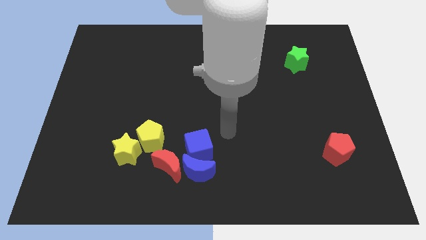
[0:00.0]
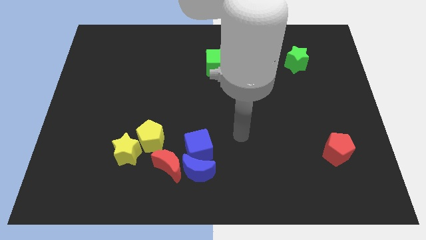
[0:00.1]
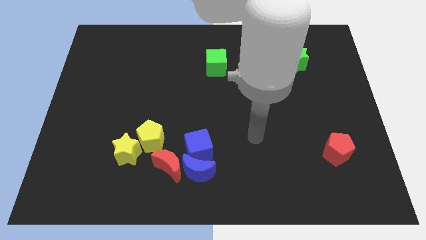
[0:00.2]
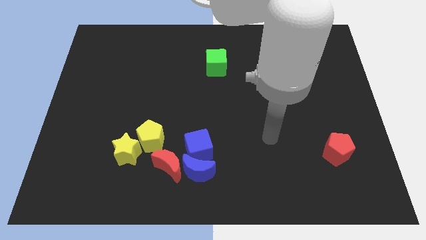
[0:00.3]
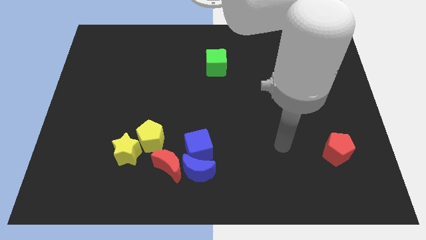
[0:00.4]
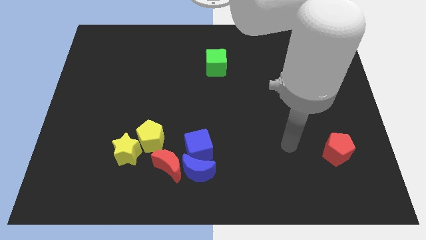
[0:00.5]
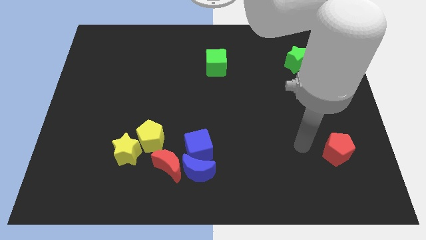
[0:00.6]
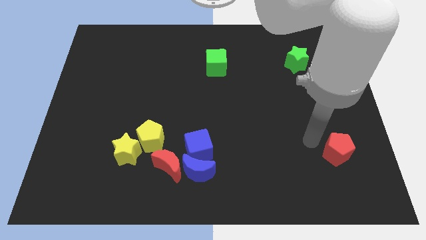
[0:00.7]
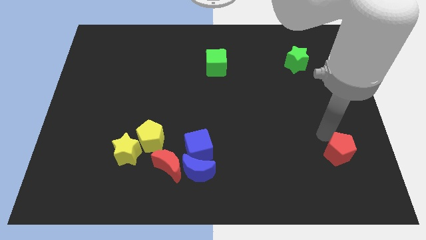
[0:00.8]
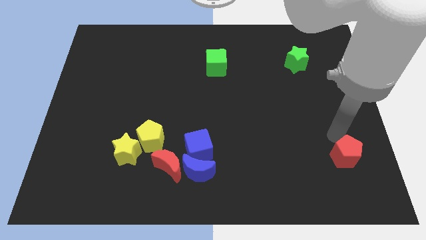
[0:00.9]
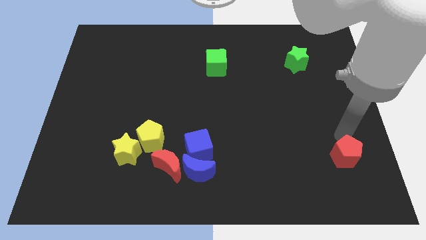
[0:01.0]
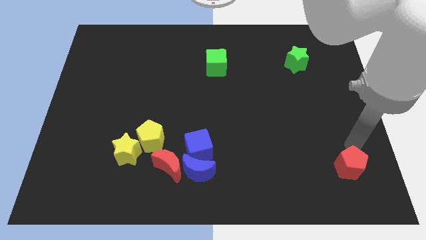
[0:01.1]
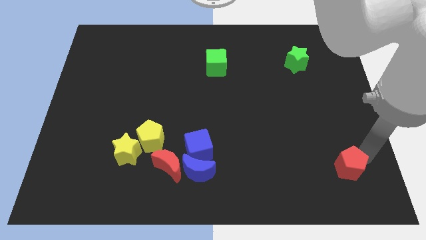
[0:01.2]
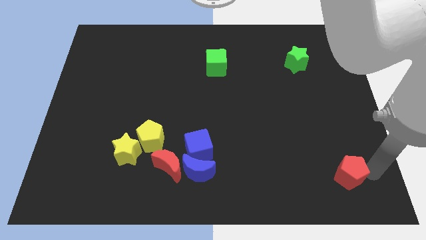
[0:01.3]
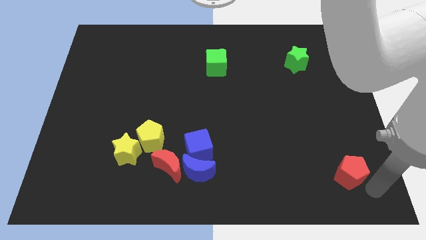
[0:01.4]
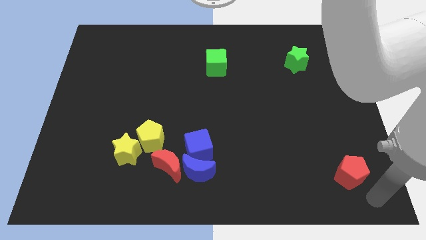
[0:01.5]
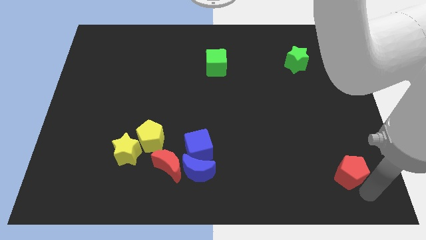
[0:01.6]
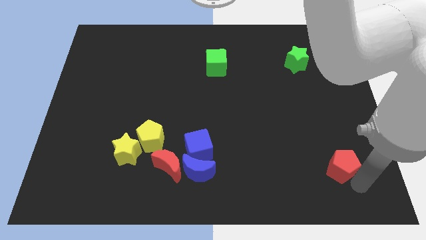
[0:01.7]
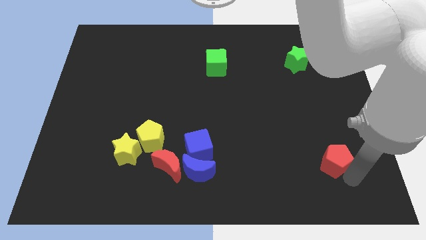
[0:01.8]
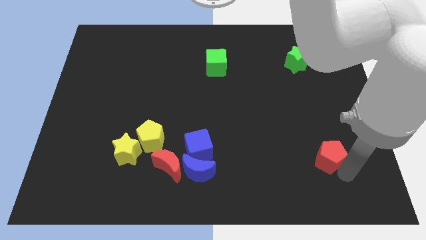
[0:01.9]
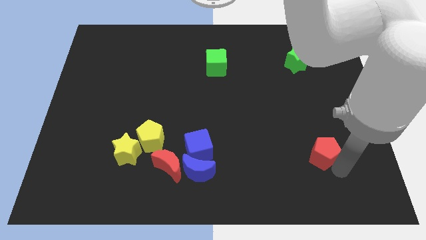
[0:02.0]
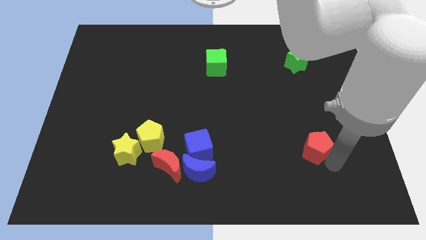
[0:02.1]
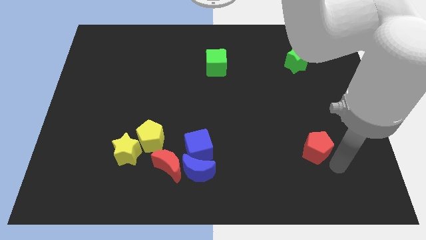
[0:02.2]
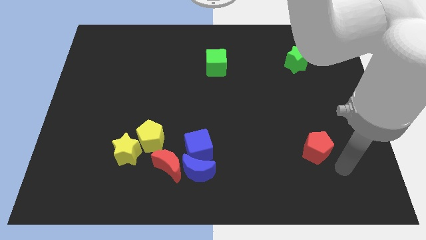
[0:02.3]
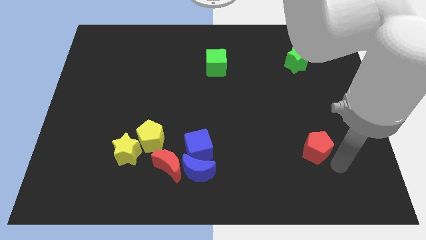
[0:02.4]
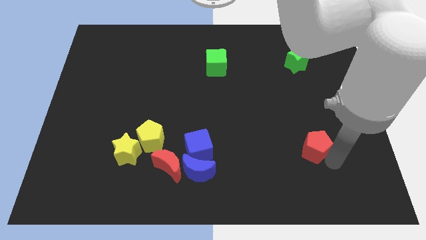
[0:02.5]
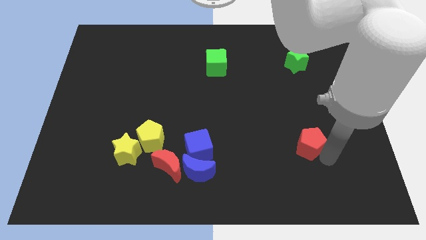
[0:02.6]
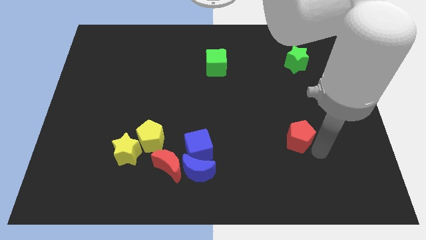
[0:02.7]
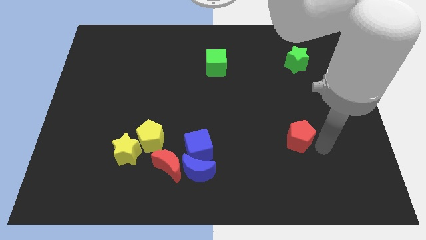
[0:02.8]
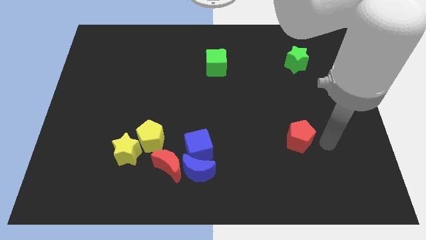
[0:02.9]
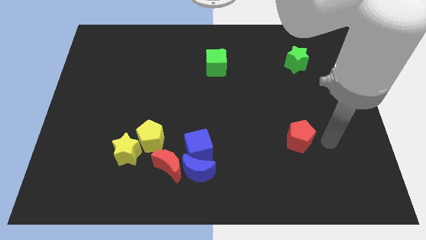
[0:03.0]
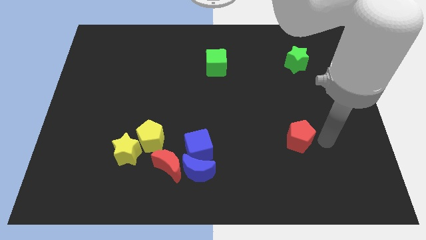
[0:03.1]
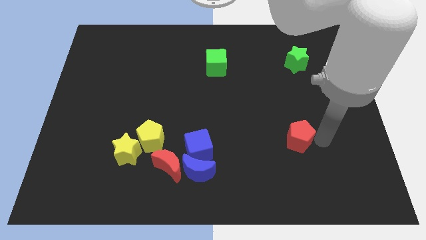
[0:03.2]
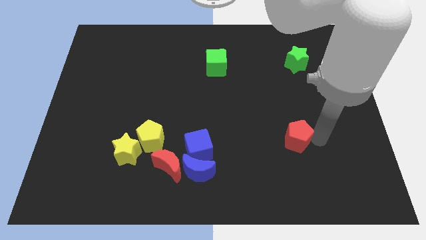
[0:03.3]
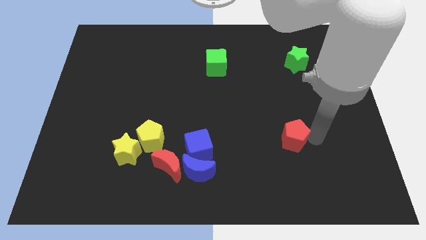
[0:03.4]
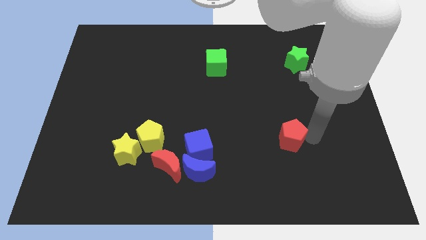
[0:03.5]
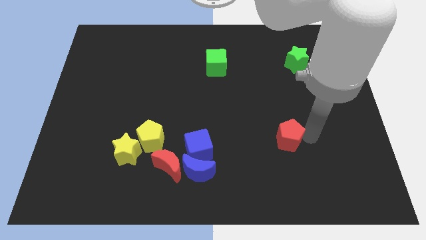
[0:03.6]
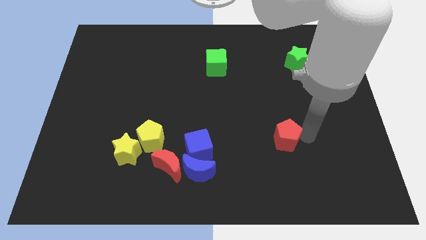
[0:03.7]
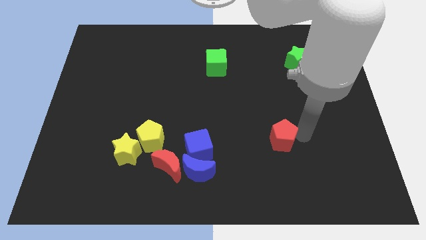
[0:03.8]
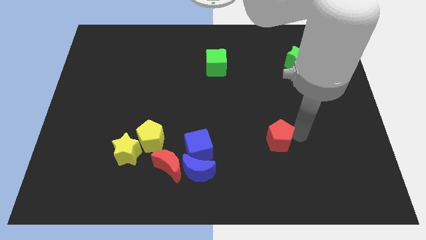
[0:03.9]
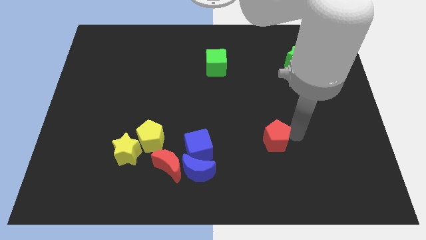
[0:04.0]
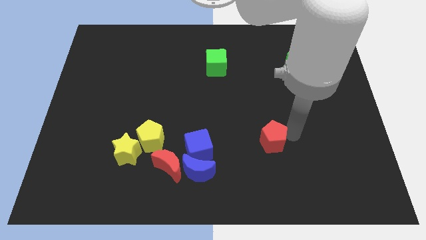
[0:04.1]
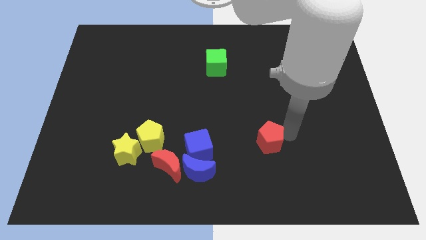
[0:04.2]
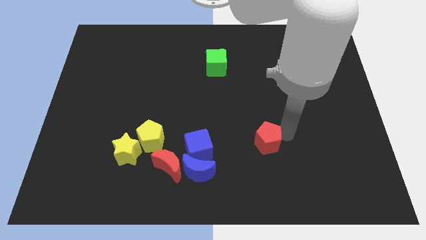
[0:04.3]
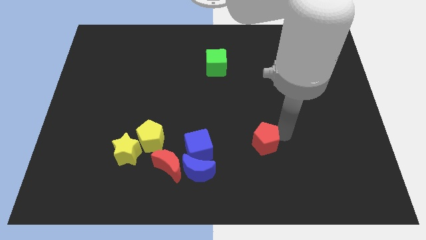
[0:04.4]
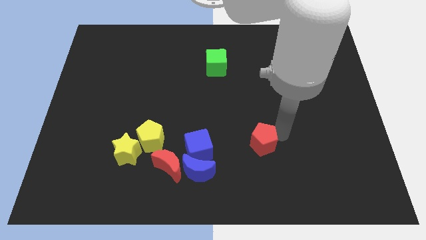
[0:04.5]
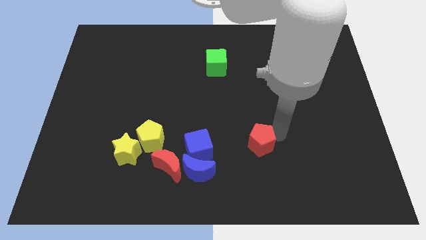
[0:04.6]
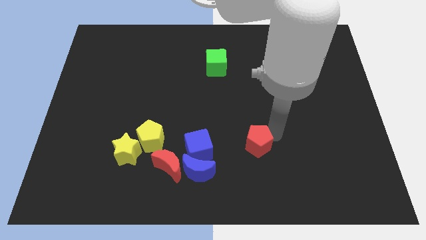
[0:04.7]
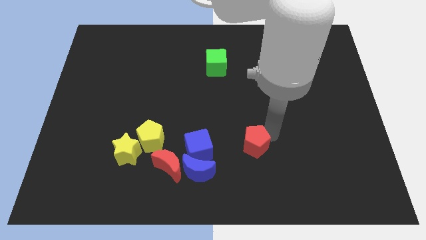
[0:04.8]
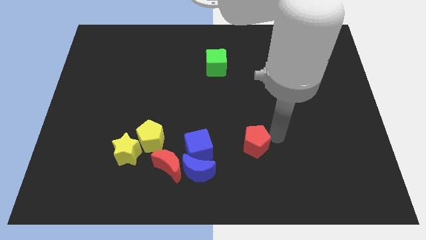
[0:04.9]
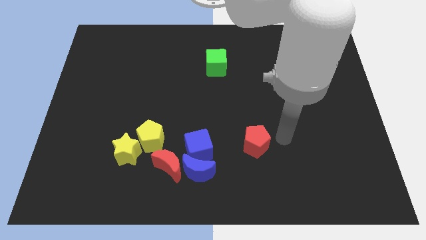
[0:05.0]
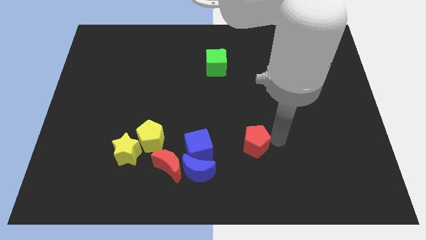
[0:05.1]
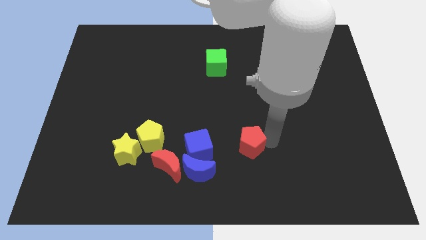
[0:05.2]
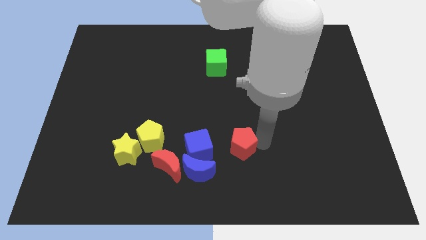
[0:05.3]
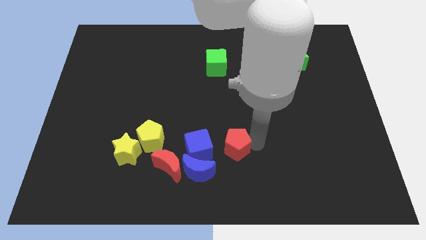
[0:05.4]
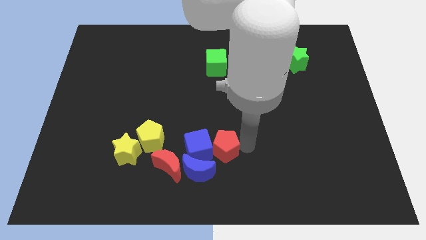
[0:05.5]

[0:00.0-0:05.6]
move the red pentagon towards the blue cube

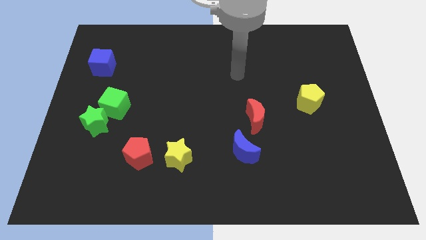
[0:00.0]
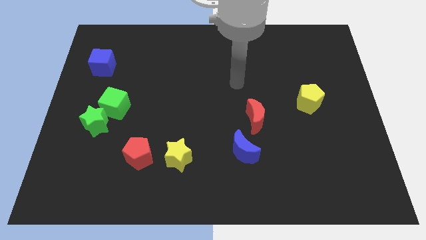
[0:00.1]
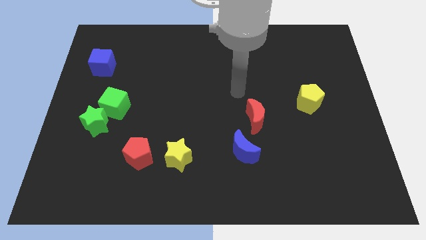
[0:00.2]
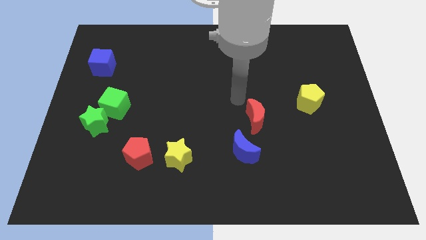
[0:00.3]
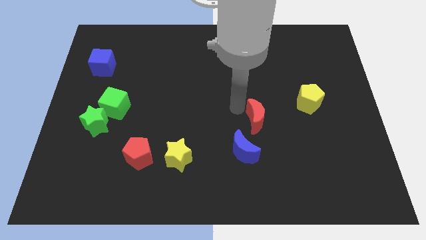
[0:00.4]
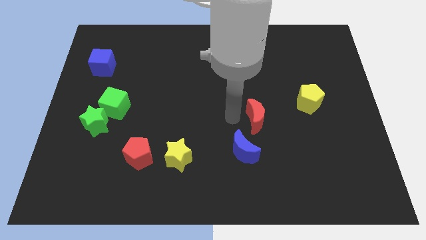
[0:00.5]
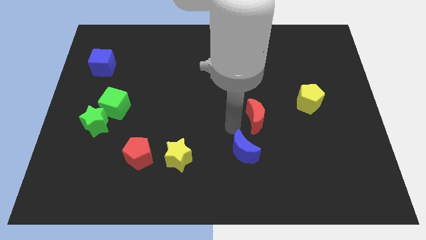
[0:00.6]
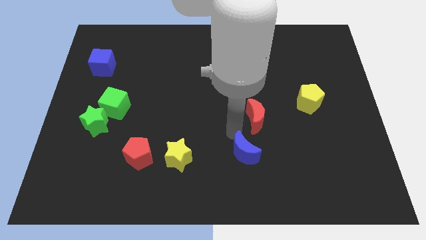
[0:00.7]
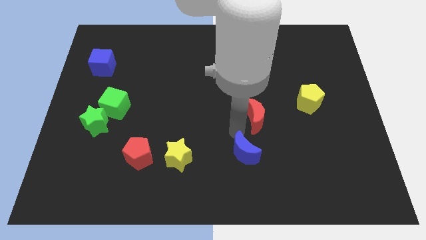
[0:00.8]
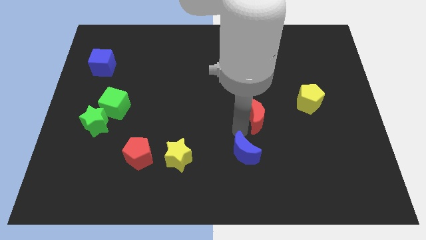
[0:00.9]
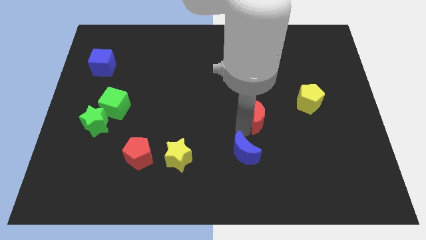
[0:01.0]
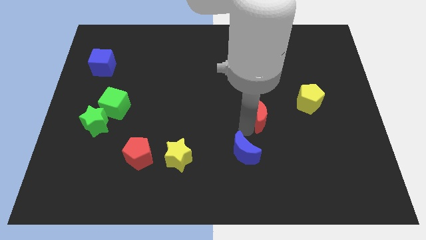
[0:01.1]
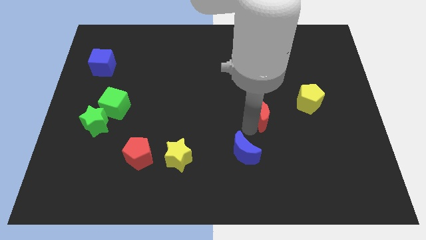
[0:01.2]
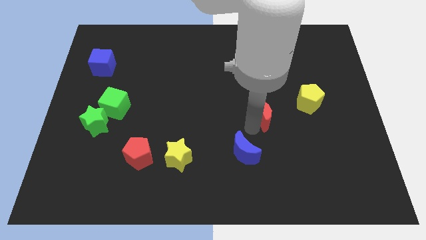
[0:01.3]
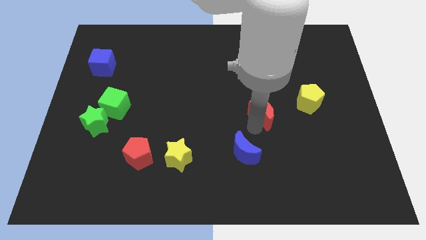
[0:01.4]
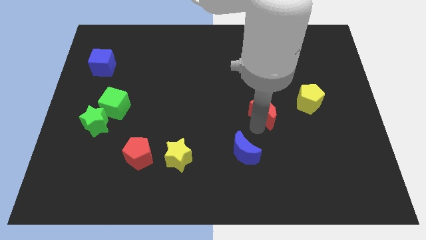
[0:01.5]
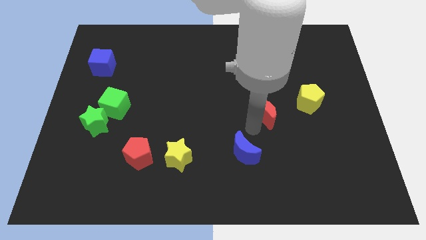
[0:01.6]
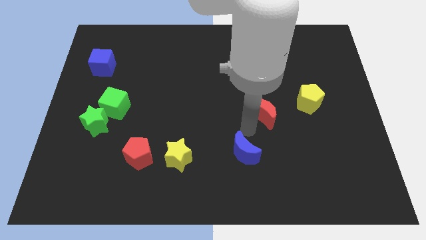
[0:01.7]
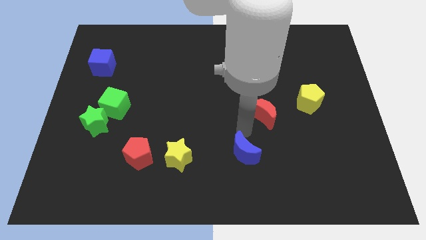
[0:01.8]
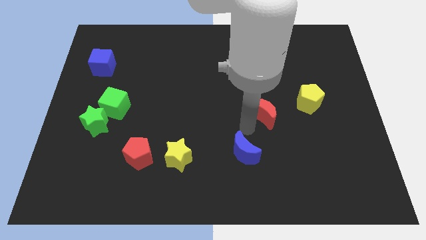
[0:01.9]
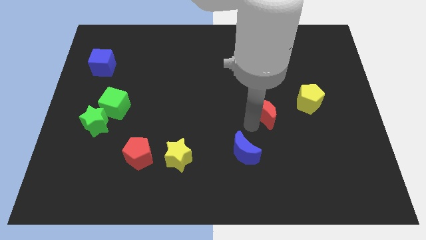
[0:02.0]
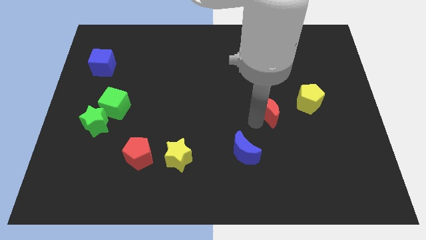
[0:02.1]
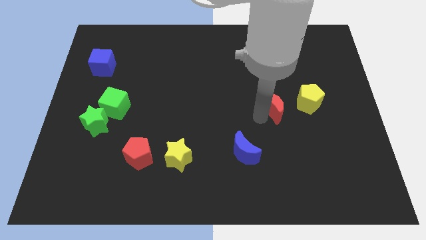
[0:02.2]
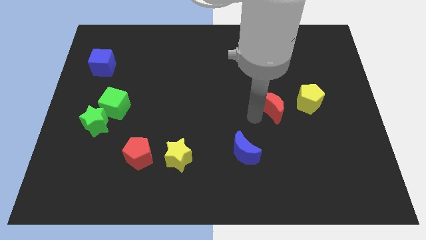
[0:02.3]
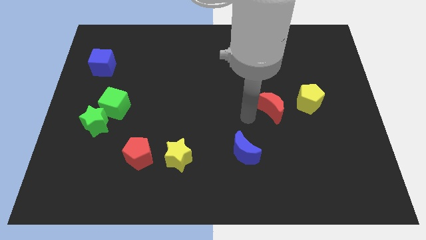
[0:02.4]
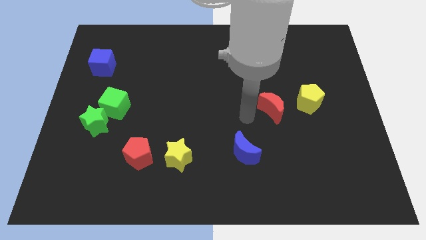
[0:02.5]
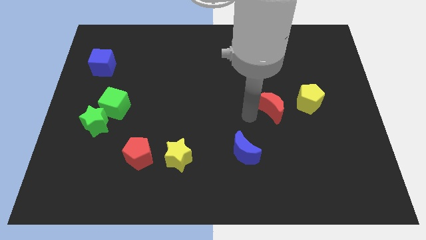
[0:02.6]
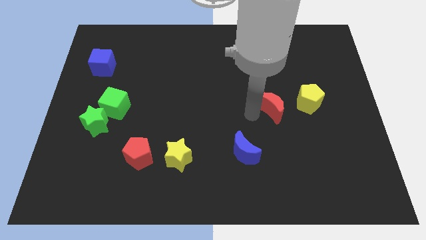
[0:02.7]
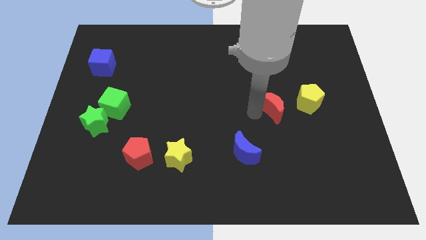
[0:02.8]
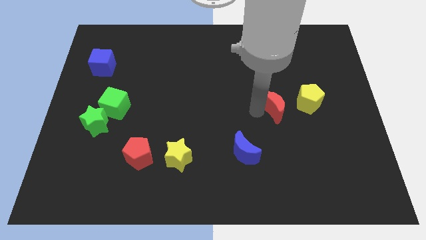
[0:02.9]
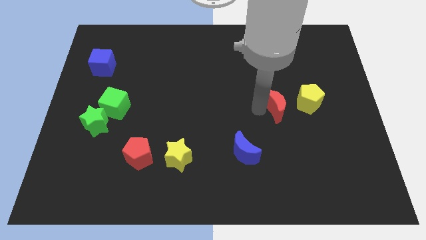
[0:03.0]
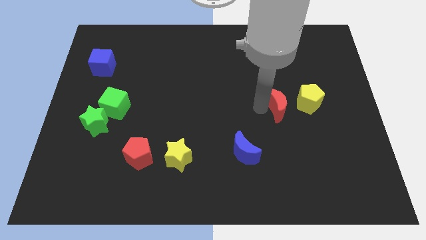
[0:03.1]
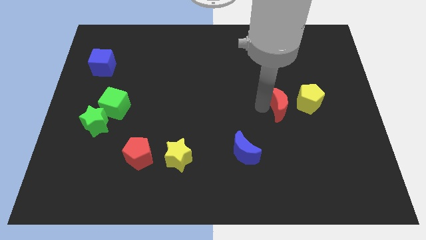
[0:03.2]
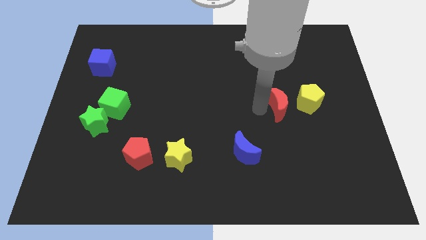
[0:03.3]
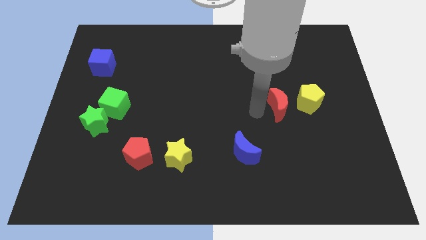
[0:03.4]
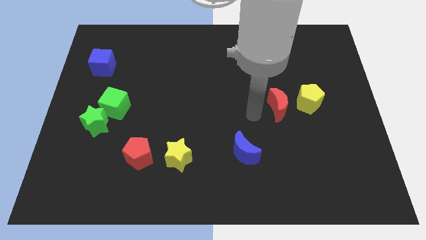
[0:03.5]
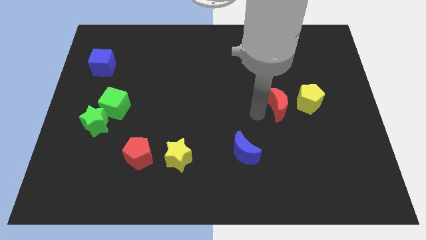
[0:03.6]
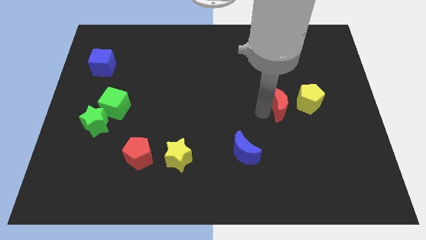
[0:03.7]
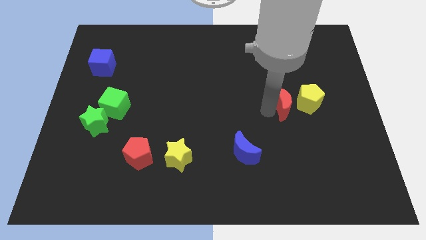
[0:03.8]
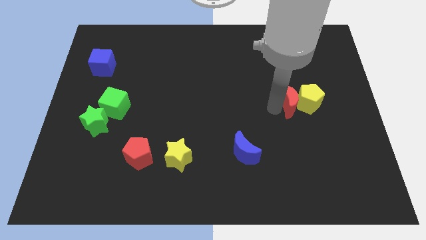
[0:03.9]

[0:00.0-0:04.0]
push the red moon towards the yellow pentagon
